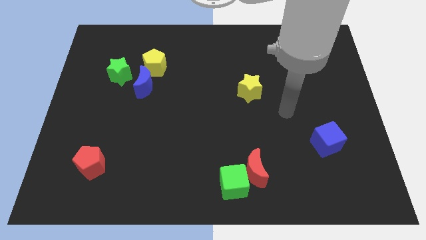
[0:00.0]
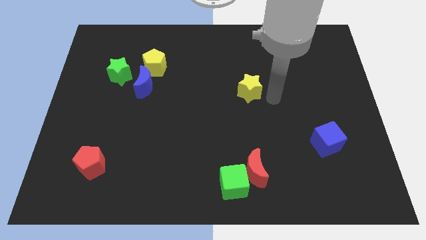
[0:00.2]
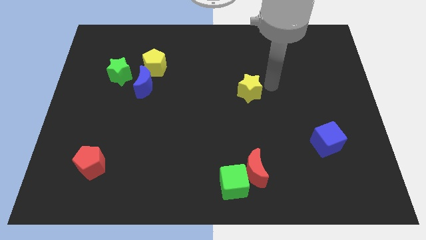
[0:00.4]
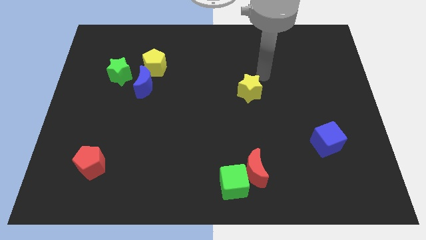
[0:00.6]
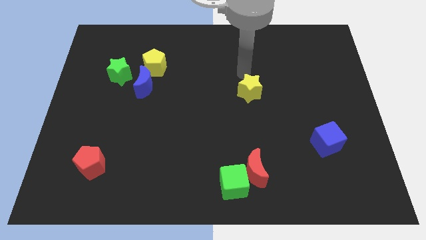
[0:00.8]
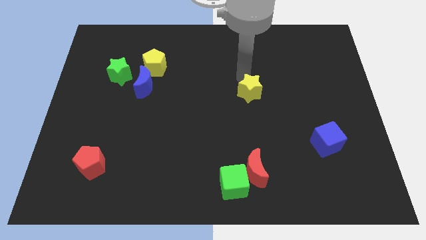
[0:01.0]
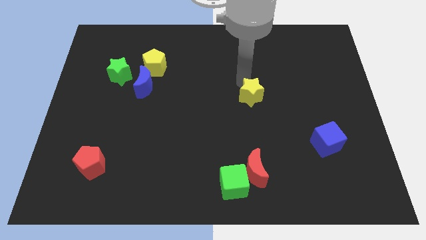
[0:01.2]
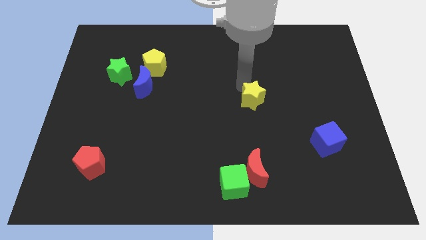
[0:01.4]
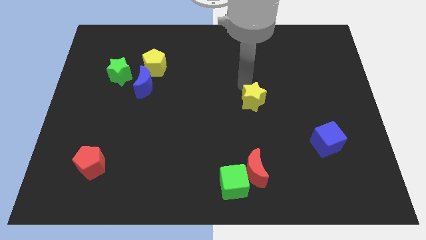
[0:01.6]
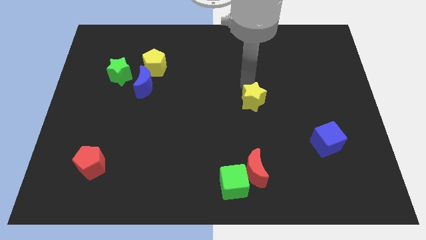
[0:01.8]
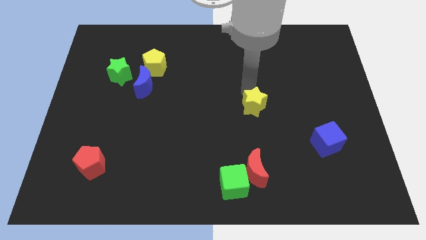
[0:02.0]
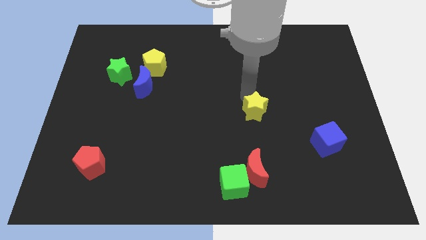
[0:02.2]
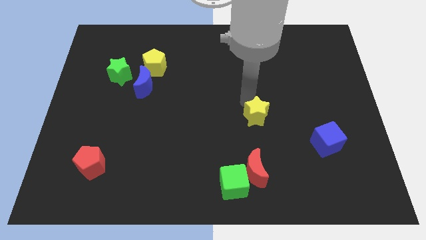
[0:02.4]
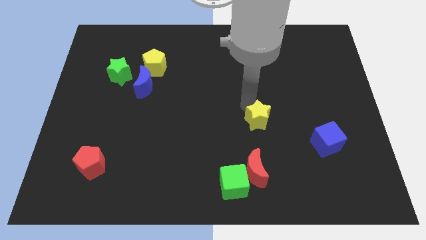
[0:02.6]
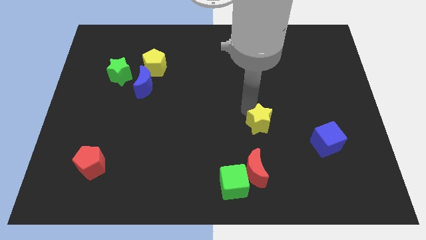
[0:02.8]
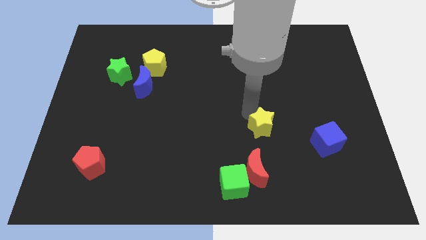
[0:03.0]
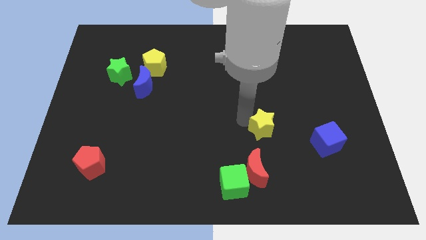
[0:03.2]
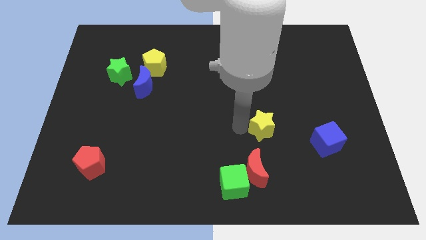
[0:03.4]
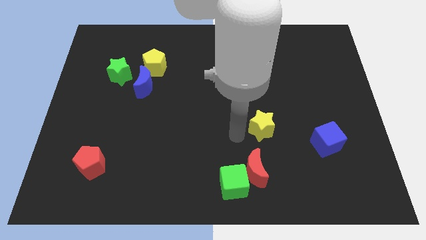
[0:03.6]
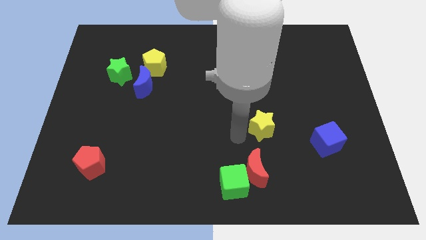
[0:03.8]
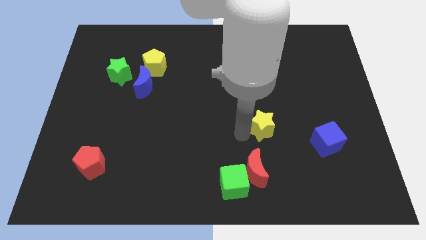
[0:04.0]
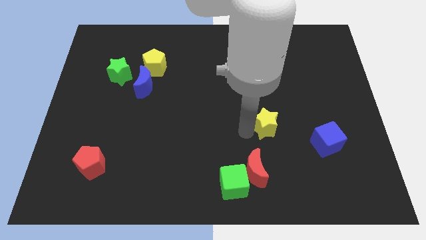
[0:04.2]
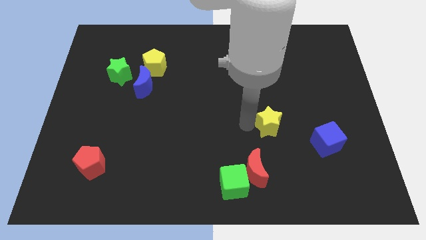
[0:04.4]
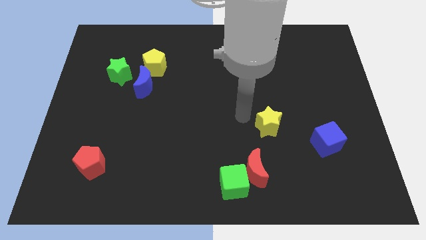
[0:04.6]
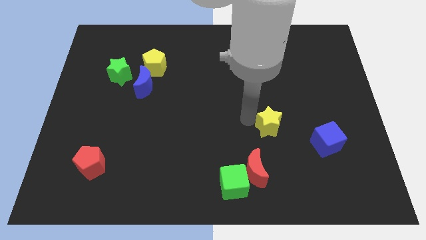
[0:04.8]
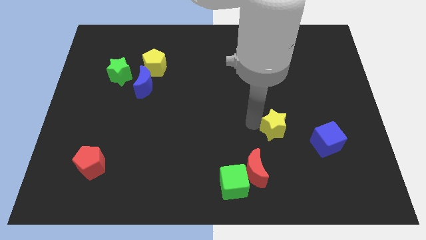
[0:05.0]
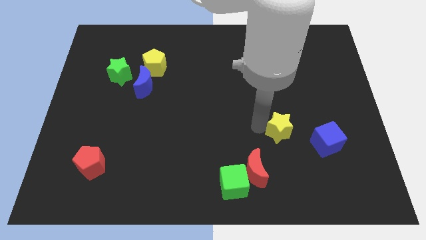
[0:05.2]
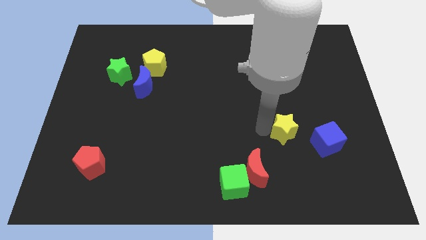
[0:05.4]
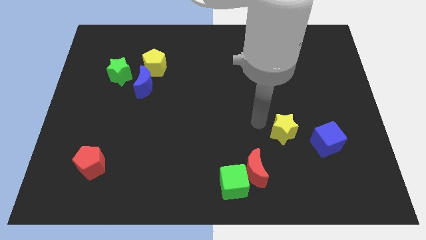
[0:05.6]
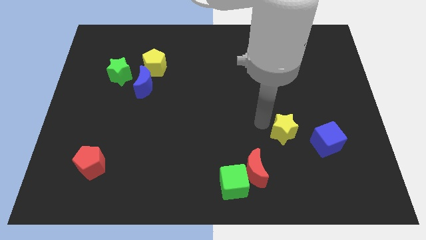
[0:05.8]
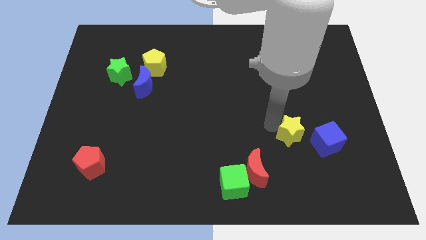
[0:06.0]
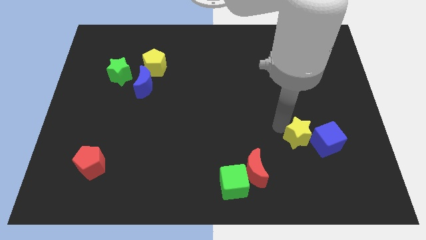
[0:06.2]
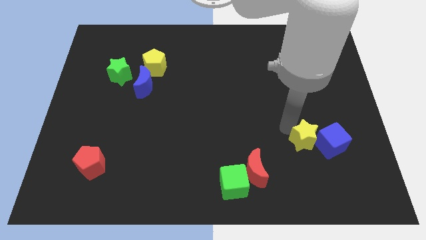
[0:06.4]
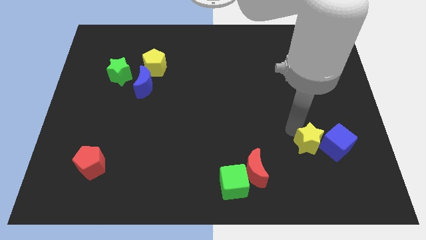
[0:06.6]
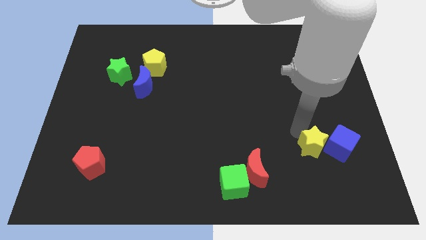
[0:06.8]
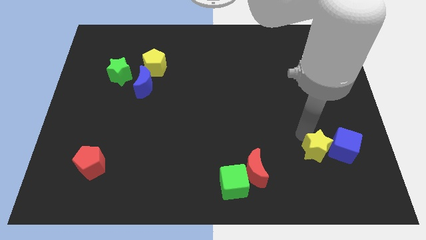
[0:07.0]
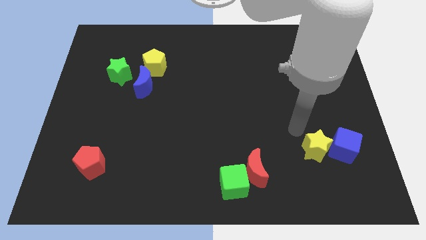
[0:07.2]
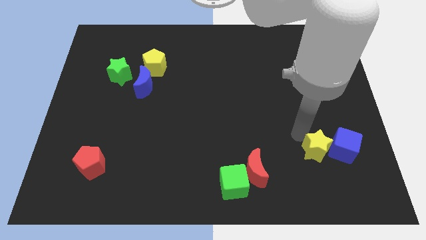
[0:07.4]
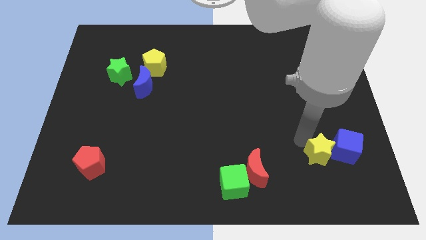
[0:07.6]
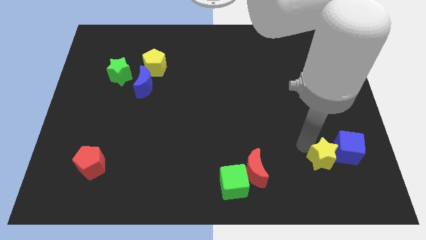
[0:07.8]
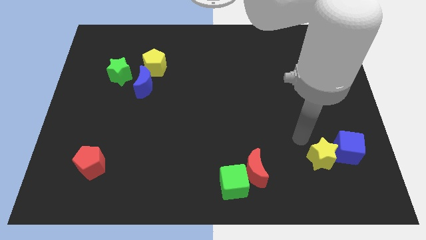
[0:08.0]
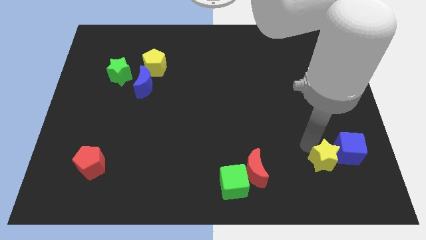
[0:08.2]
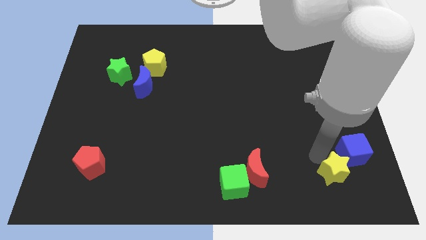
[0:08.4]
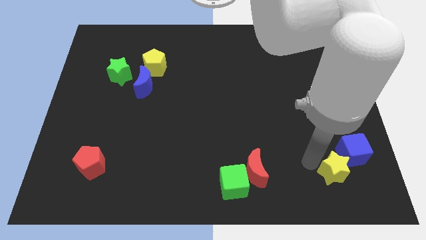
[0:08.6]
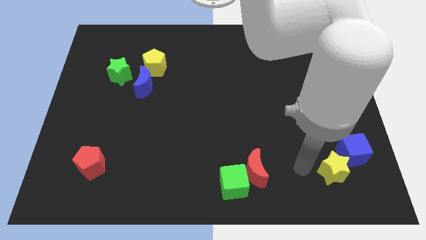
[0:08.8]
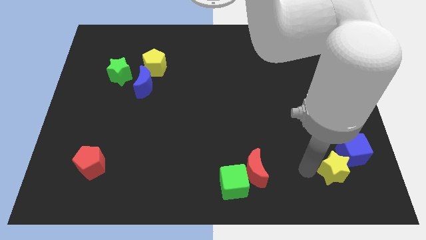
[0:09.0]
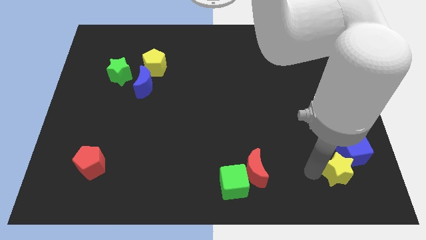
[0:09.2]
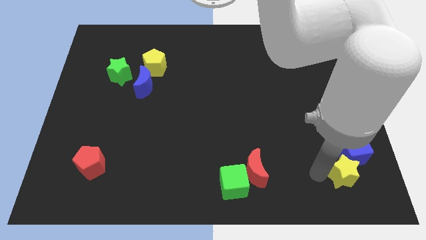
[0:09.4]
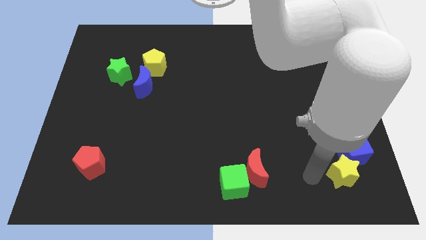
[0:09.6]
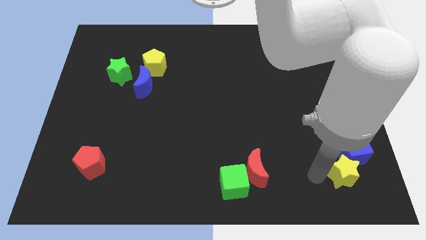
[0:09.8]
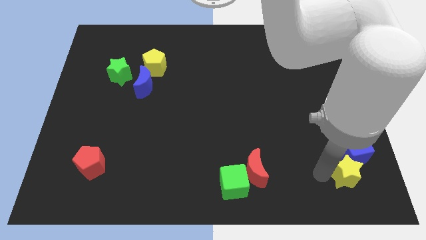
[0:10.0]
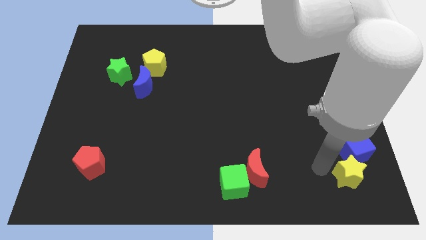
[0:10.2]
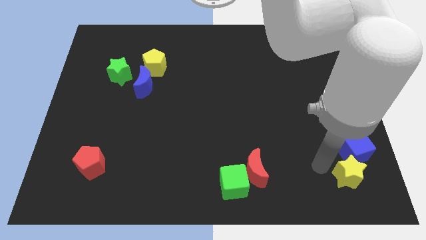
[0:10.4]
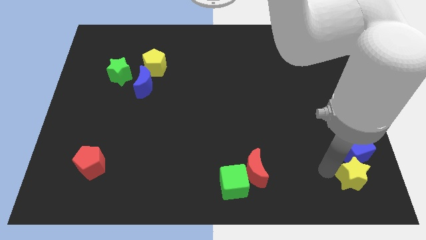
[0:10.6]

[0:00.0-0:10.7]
push the yellow star to the bottom right corner

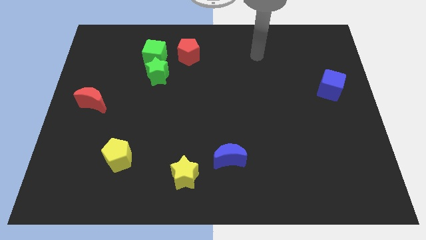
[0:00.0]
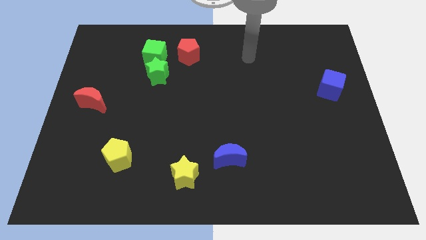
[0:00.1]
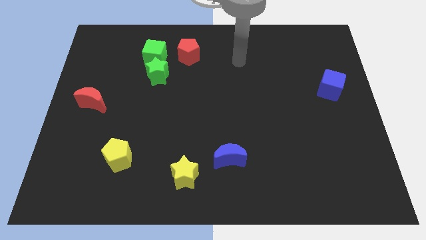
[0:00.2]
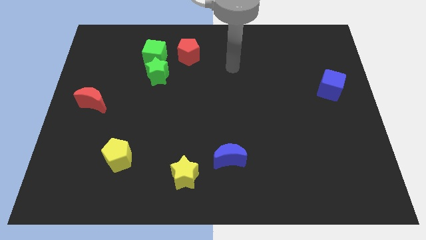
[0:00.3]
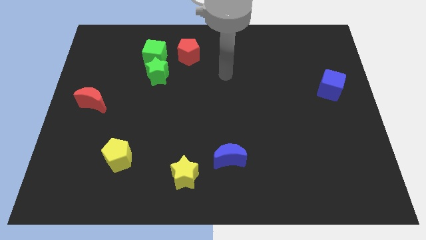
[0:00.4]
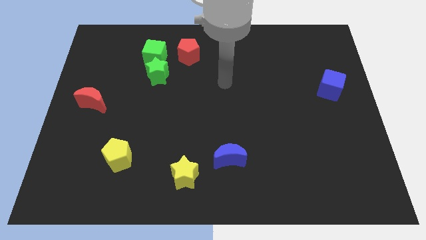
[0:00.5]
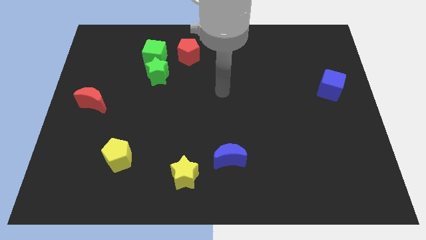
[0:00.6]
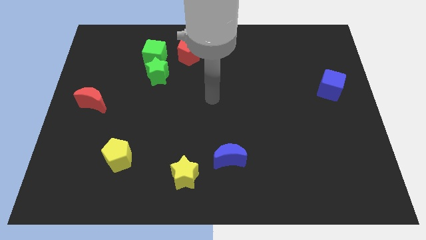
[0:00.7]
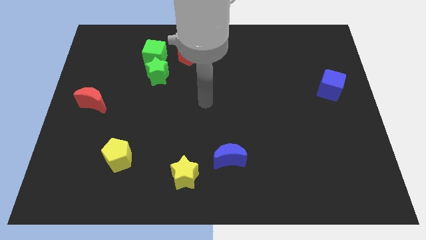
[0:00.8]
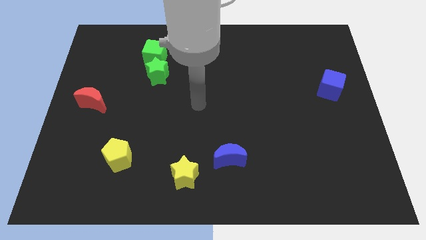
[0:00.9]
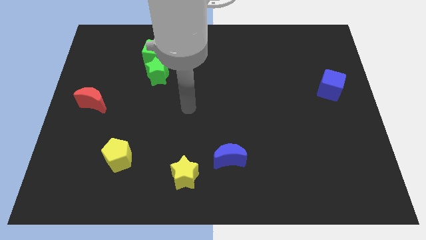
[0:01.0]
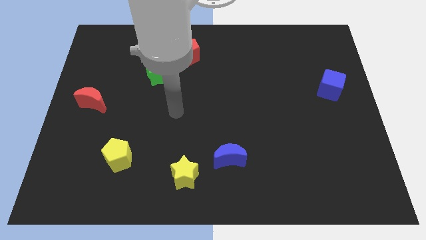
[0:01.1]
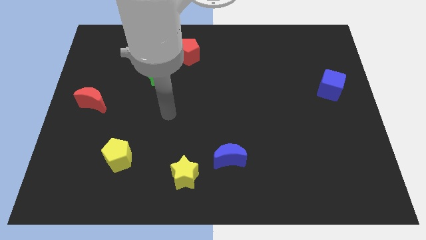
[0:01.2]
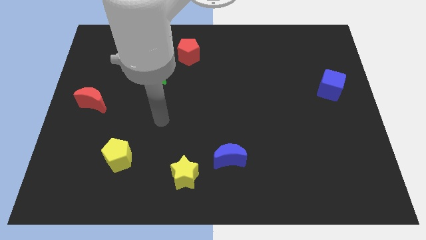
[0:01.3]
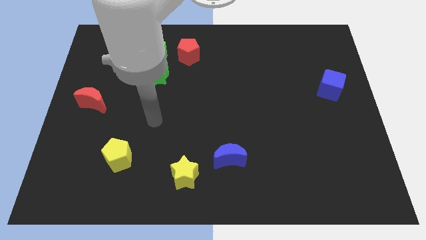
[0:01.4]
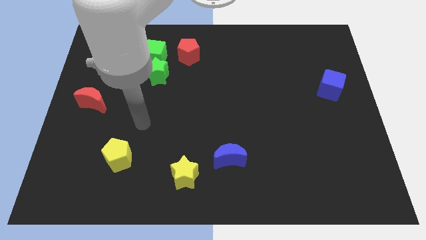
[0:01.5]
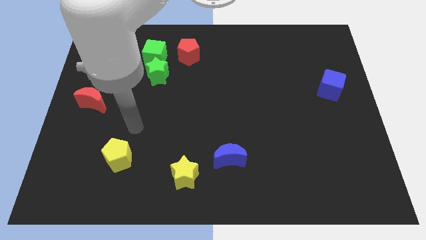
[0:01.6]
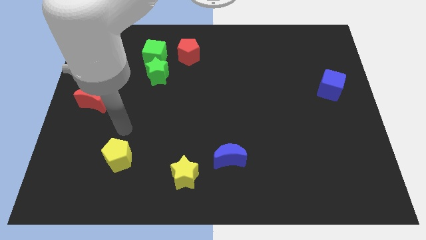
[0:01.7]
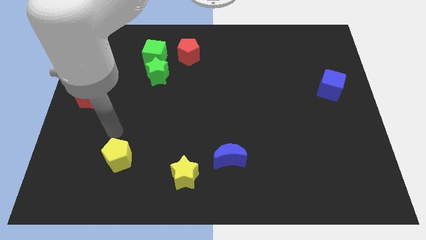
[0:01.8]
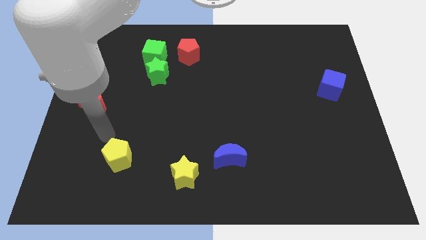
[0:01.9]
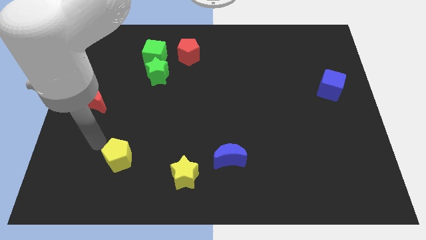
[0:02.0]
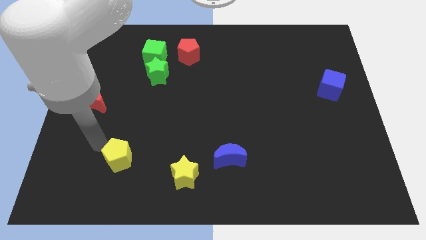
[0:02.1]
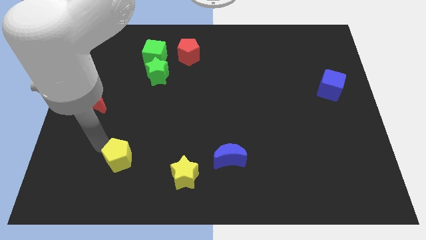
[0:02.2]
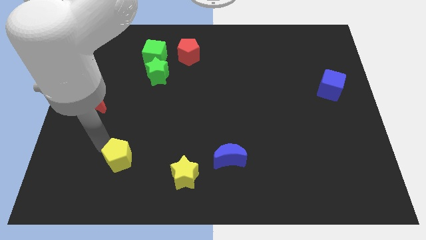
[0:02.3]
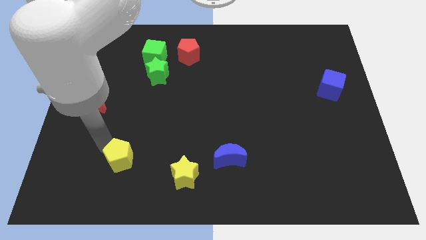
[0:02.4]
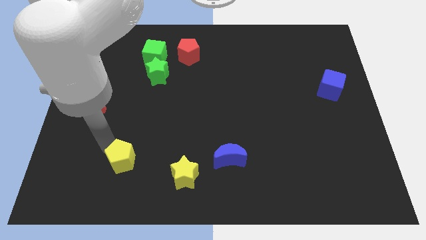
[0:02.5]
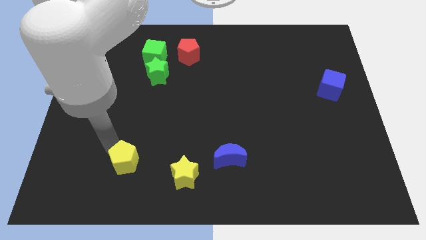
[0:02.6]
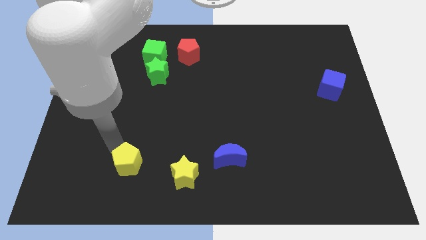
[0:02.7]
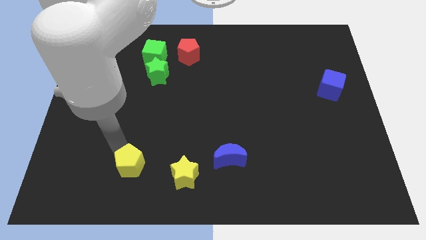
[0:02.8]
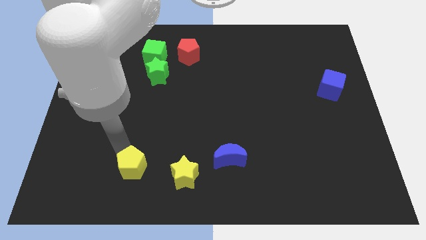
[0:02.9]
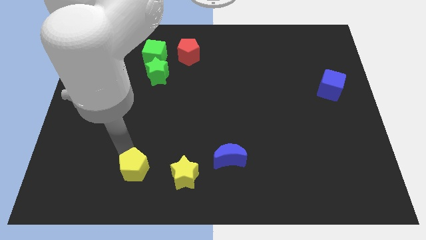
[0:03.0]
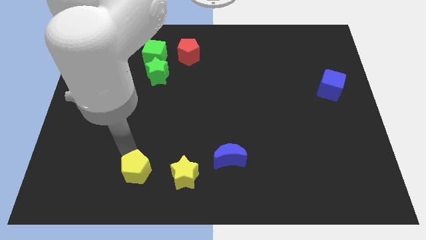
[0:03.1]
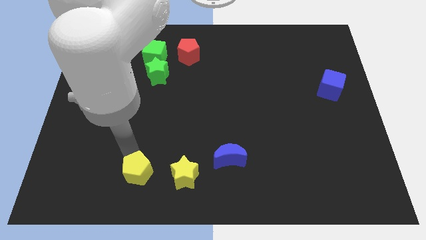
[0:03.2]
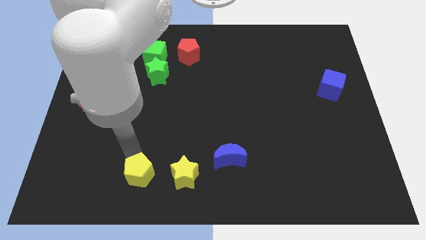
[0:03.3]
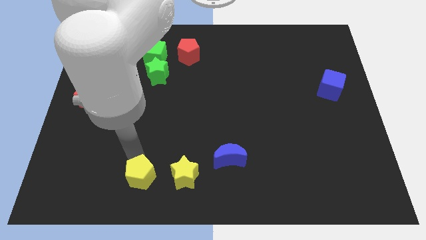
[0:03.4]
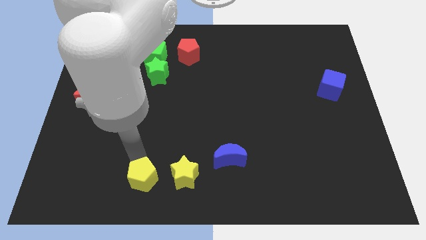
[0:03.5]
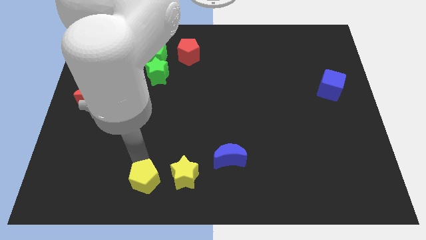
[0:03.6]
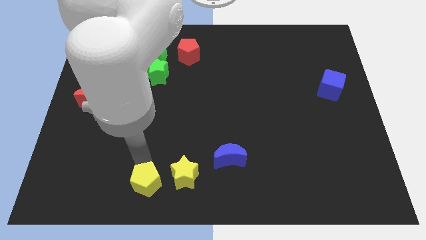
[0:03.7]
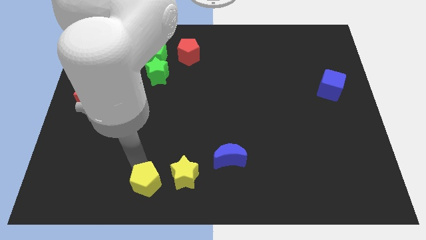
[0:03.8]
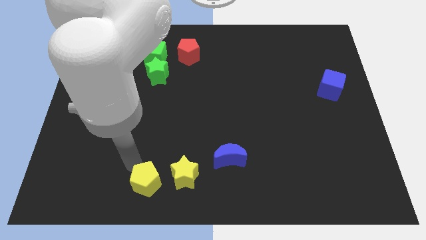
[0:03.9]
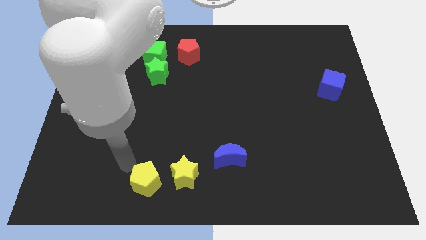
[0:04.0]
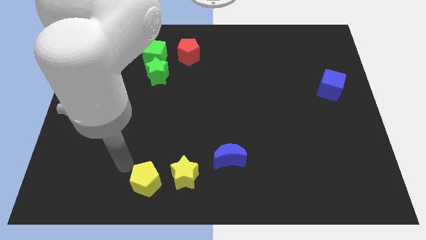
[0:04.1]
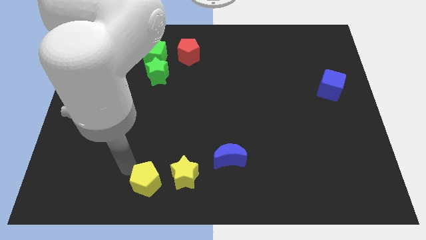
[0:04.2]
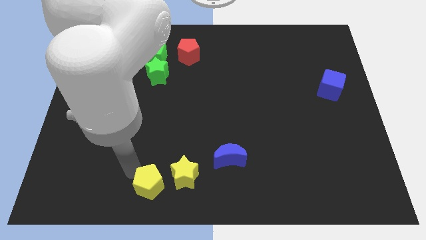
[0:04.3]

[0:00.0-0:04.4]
slide the yellow pentagon to the bottom
